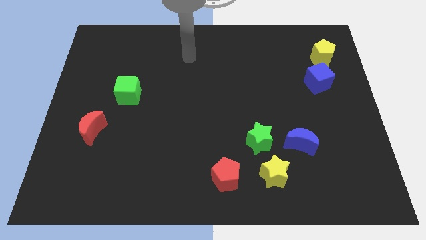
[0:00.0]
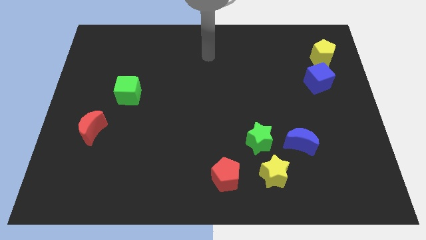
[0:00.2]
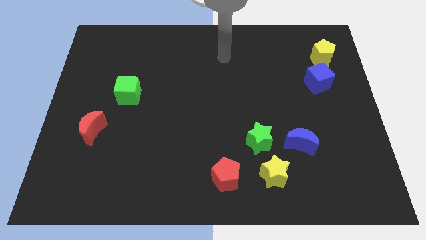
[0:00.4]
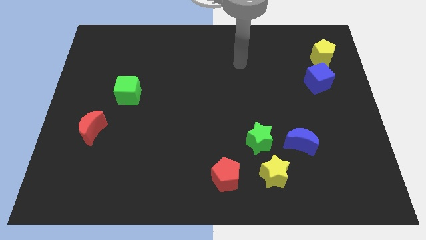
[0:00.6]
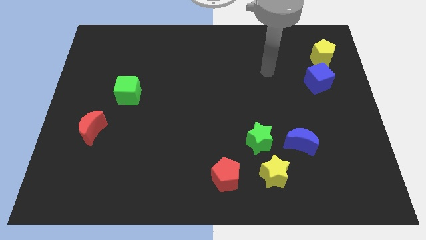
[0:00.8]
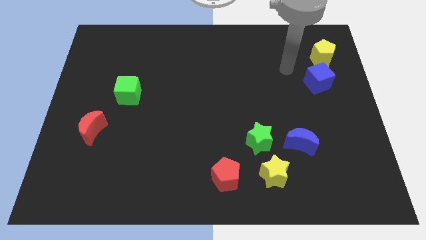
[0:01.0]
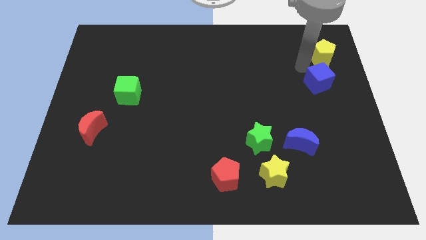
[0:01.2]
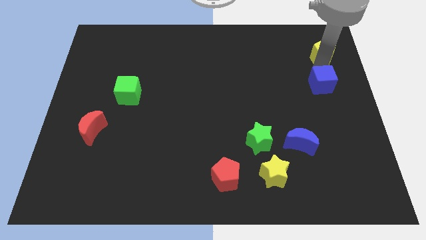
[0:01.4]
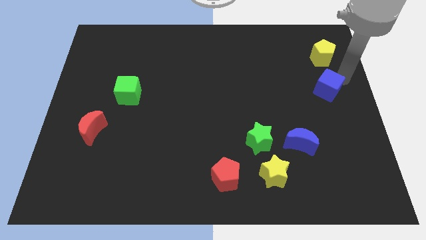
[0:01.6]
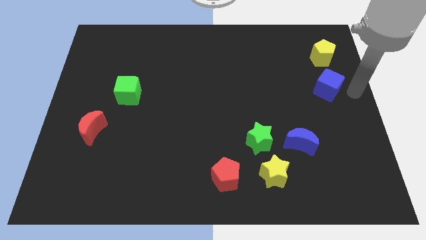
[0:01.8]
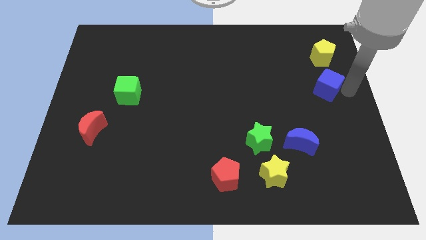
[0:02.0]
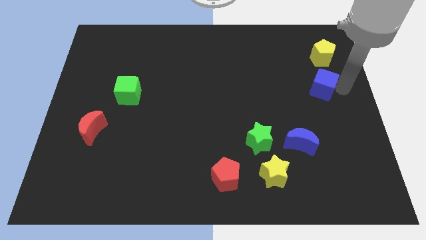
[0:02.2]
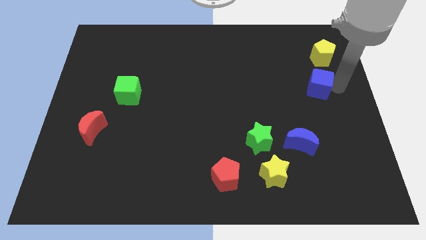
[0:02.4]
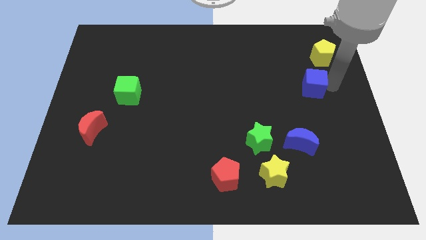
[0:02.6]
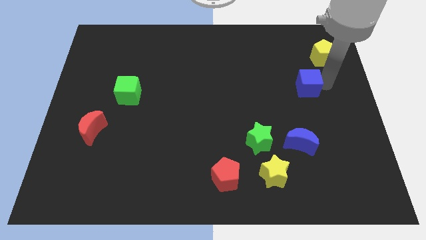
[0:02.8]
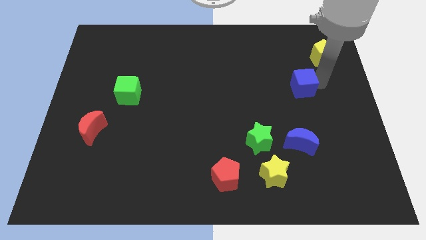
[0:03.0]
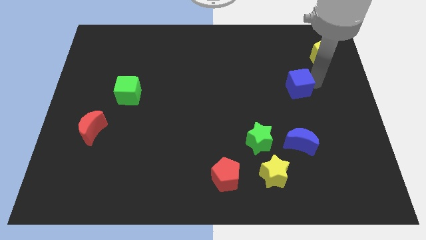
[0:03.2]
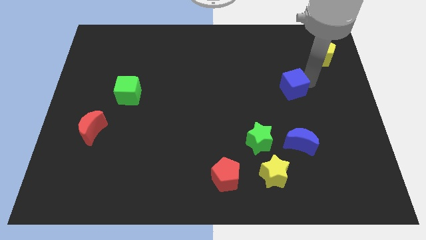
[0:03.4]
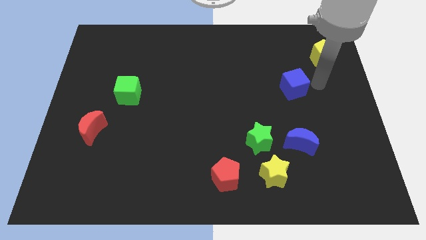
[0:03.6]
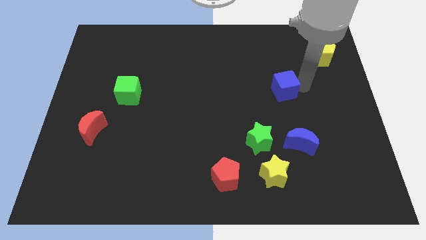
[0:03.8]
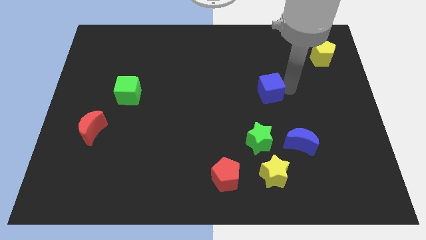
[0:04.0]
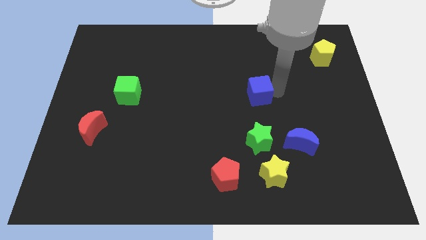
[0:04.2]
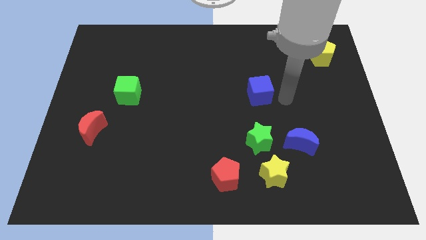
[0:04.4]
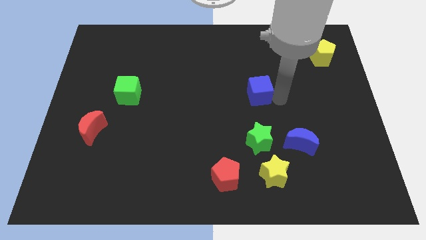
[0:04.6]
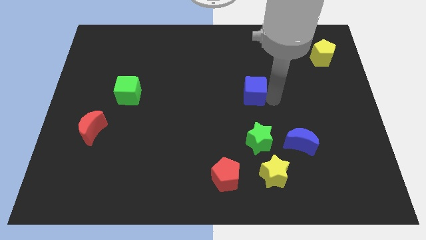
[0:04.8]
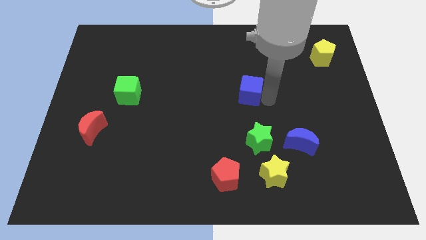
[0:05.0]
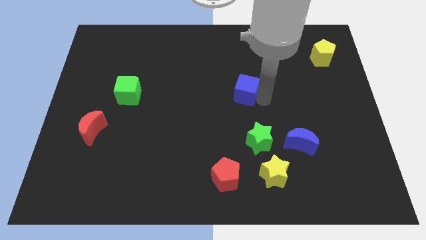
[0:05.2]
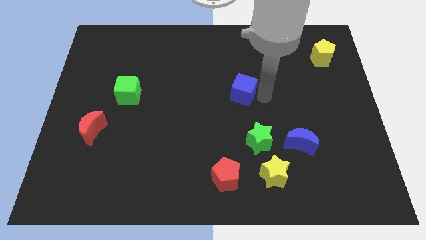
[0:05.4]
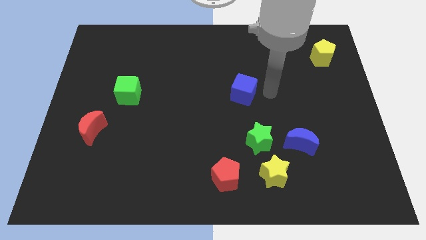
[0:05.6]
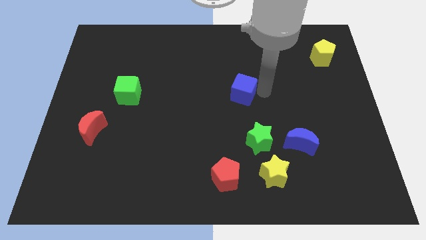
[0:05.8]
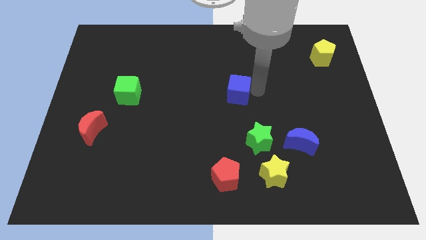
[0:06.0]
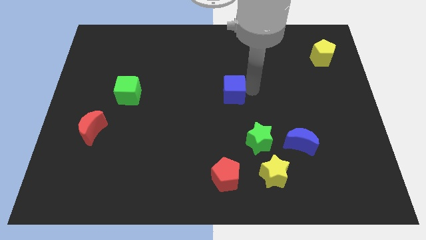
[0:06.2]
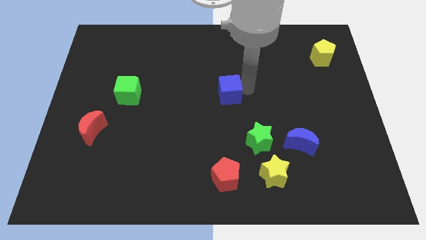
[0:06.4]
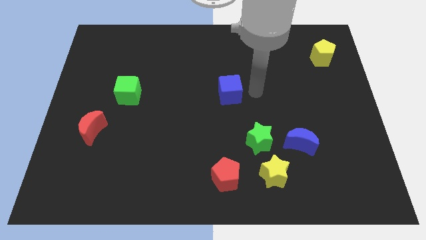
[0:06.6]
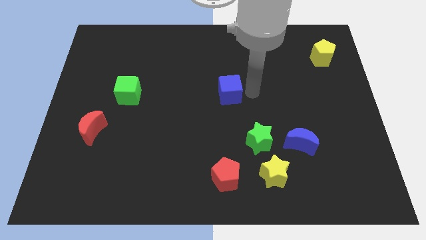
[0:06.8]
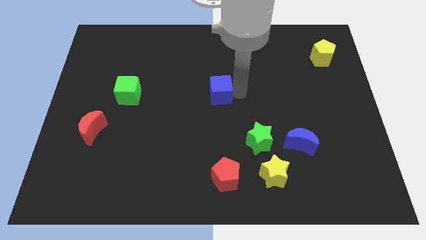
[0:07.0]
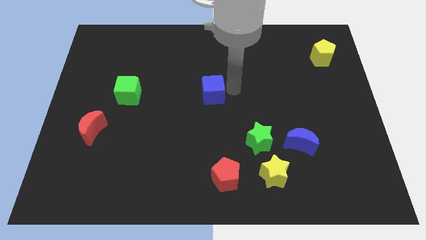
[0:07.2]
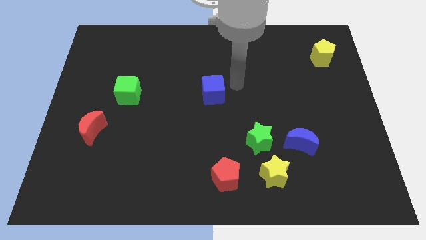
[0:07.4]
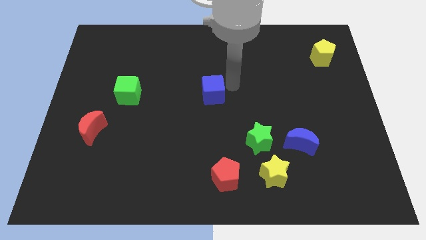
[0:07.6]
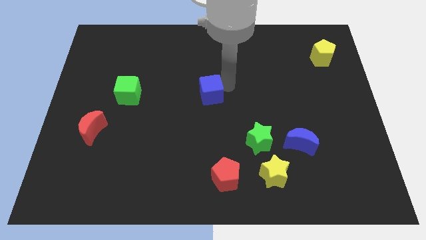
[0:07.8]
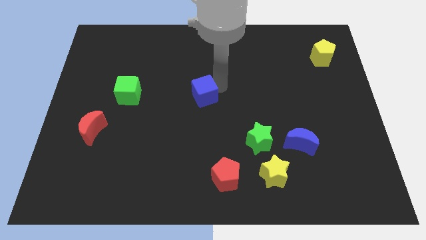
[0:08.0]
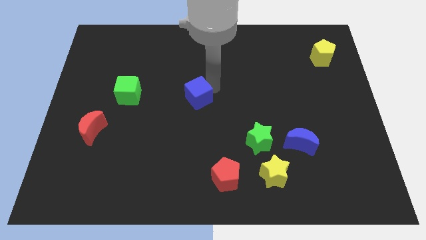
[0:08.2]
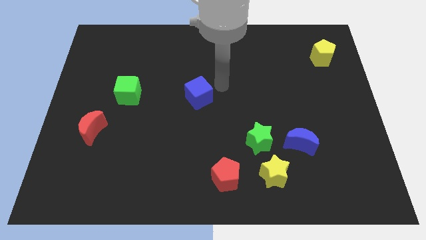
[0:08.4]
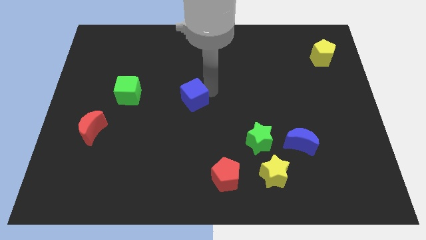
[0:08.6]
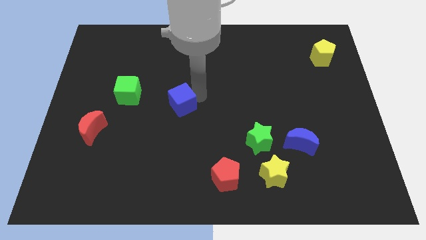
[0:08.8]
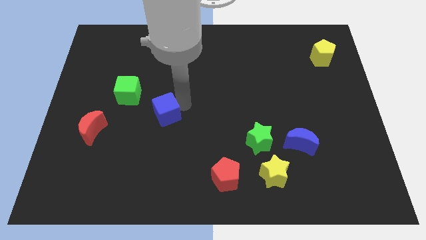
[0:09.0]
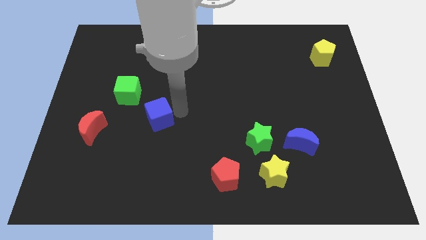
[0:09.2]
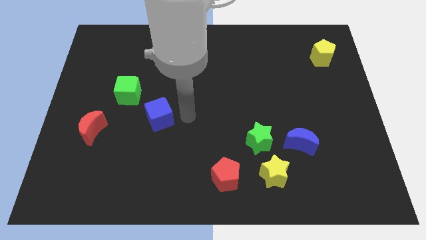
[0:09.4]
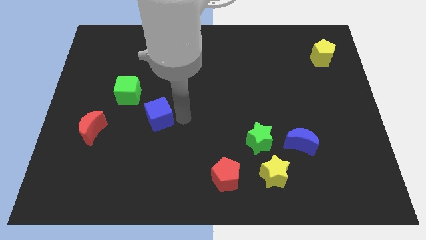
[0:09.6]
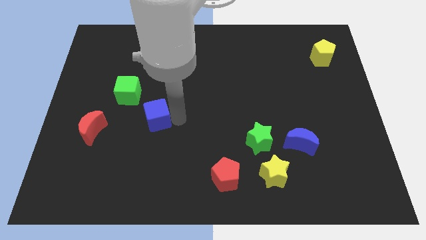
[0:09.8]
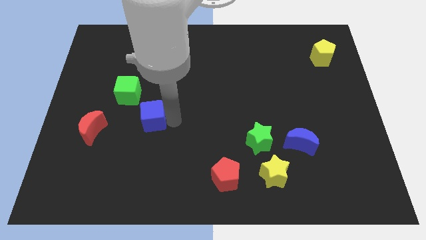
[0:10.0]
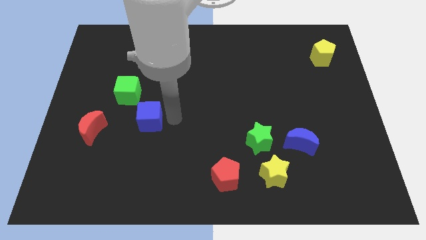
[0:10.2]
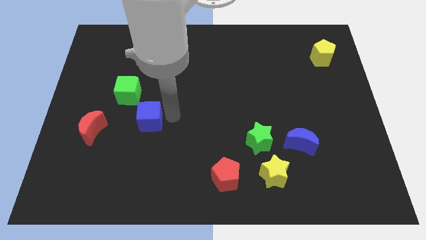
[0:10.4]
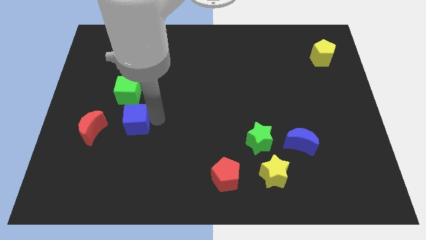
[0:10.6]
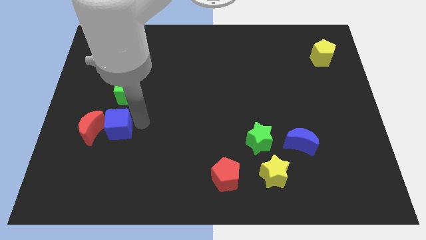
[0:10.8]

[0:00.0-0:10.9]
move the blue cube next to the red moon

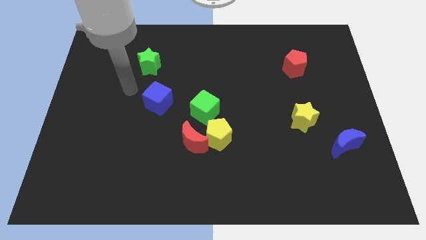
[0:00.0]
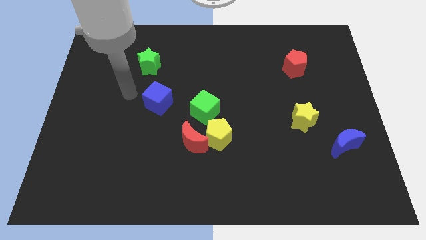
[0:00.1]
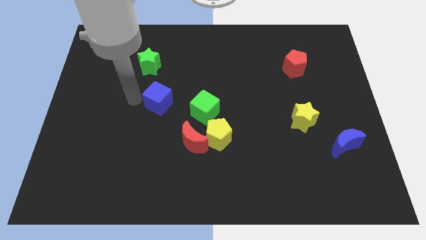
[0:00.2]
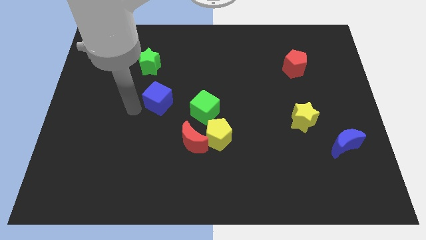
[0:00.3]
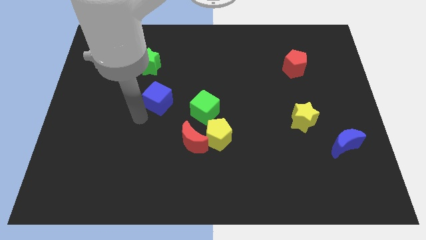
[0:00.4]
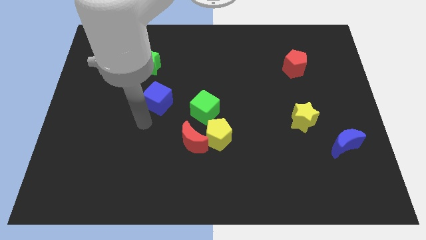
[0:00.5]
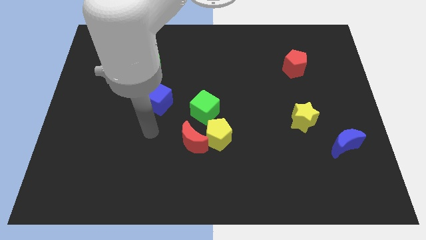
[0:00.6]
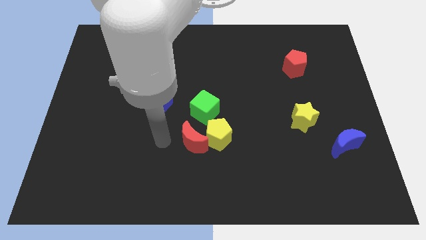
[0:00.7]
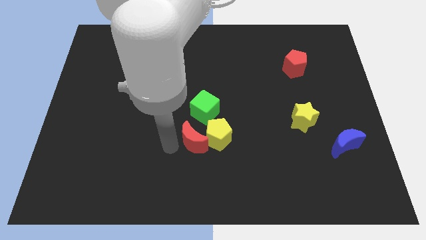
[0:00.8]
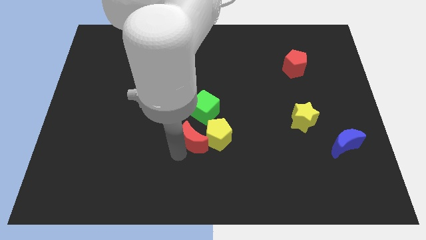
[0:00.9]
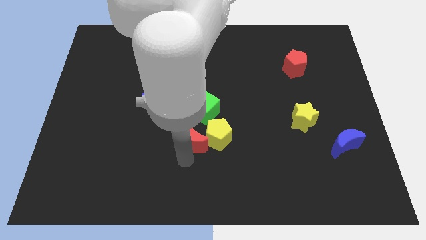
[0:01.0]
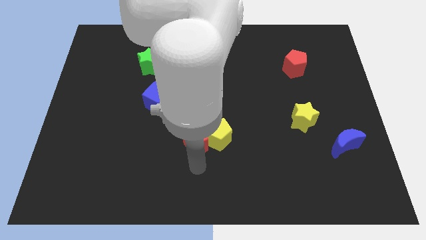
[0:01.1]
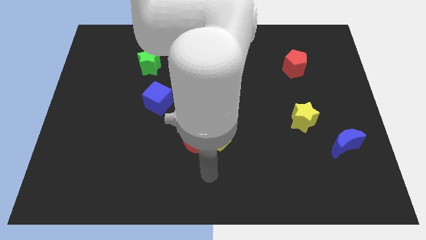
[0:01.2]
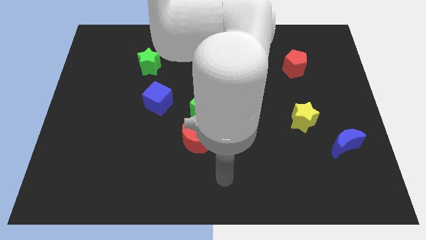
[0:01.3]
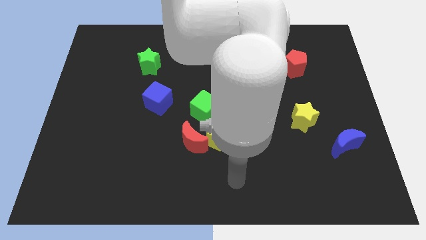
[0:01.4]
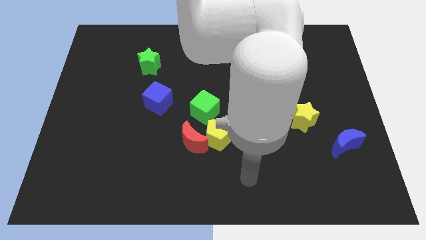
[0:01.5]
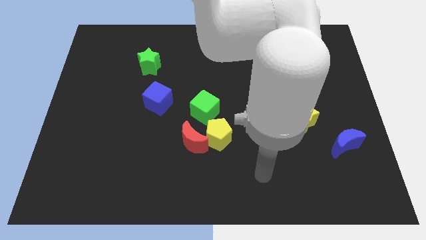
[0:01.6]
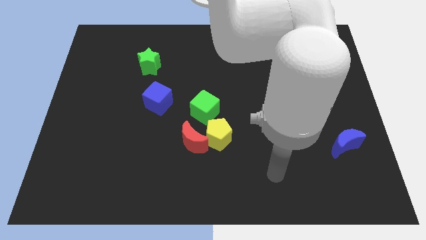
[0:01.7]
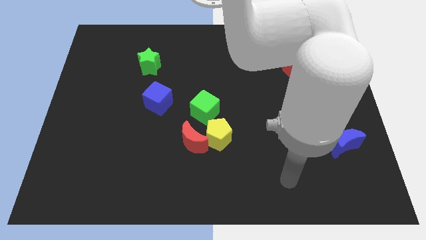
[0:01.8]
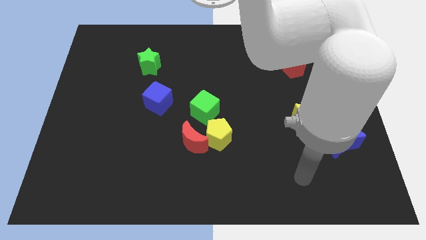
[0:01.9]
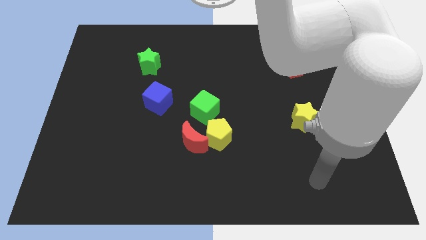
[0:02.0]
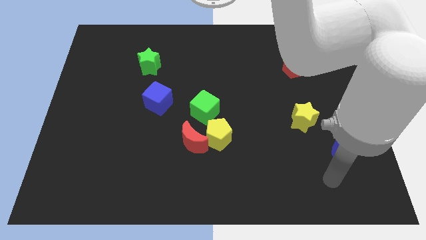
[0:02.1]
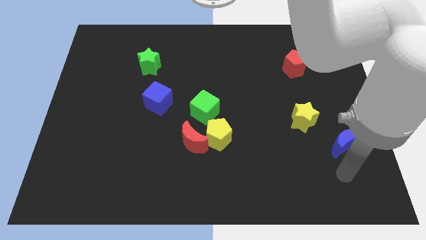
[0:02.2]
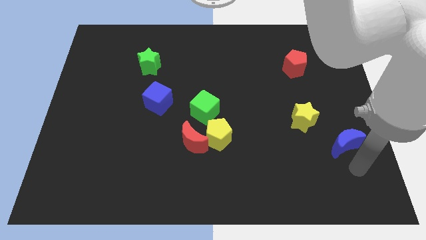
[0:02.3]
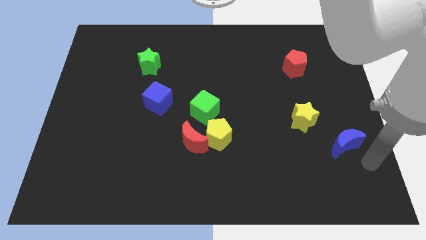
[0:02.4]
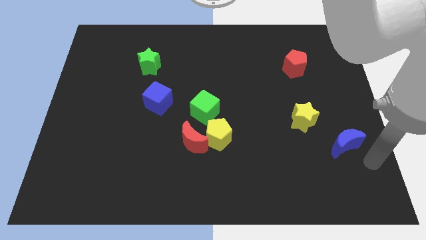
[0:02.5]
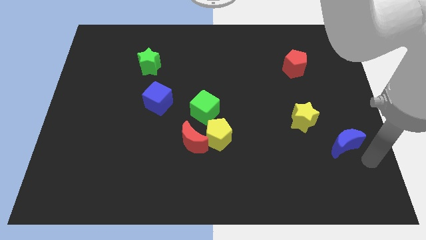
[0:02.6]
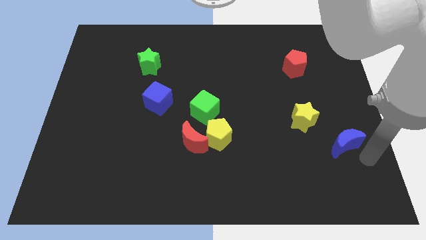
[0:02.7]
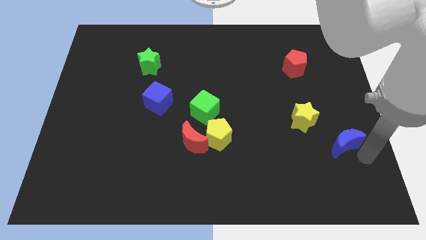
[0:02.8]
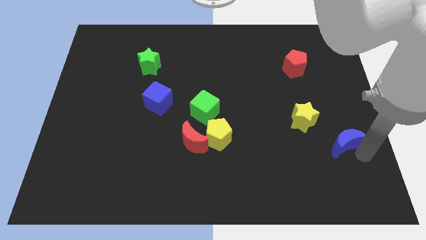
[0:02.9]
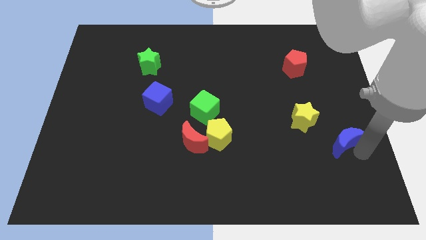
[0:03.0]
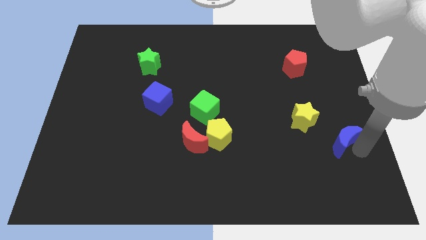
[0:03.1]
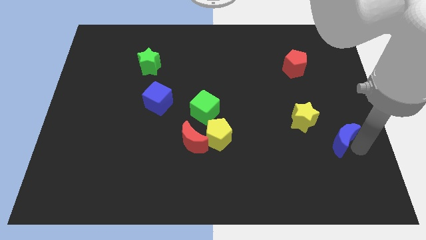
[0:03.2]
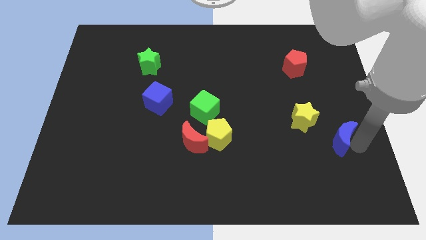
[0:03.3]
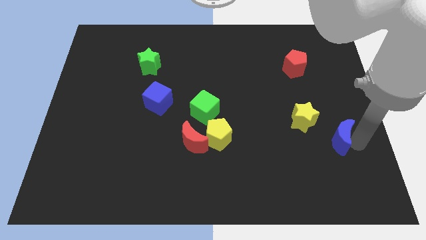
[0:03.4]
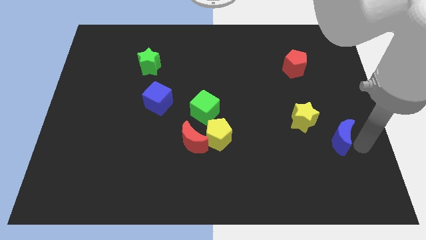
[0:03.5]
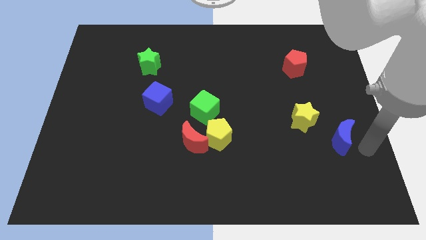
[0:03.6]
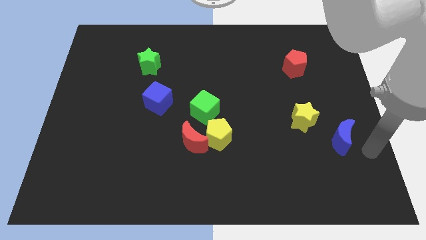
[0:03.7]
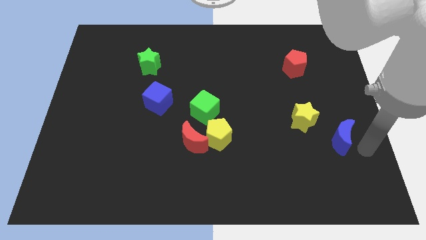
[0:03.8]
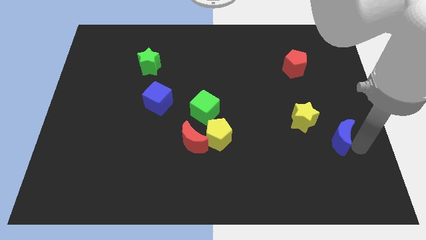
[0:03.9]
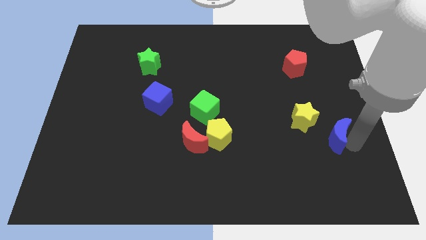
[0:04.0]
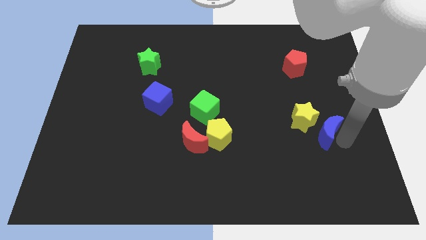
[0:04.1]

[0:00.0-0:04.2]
slide the blue moon close to the yellow star
